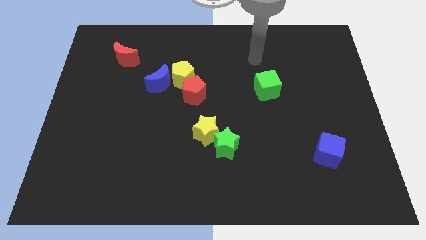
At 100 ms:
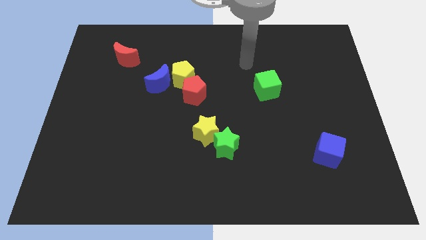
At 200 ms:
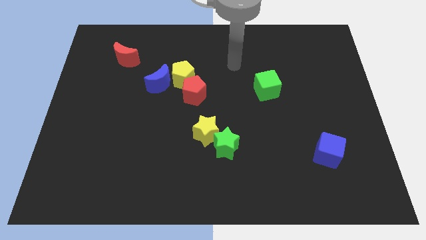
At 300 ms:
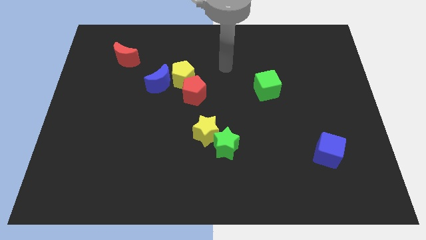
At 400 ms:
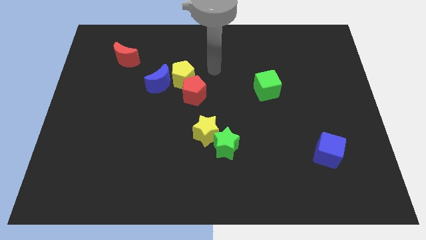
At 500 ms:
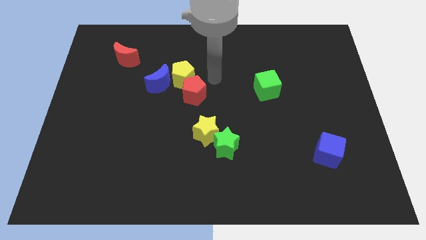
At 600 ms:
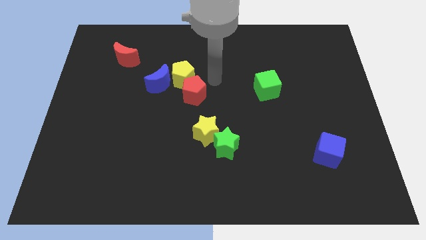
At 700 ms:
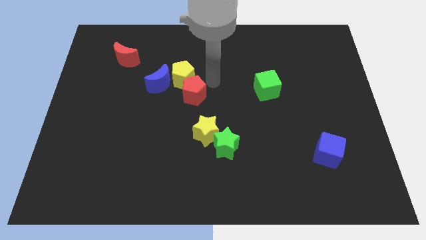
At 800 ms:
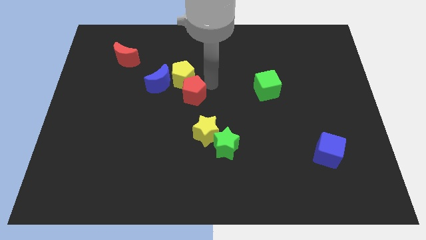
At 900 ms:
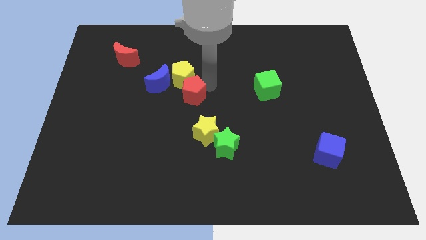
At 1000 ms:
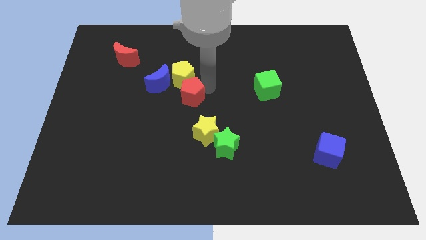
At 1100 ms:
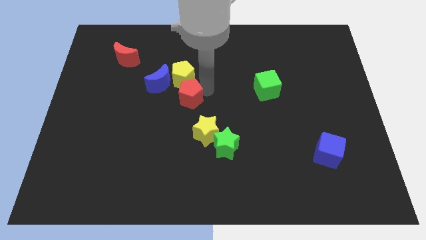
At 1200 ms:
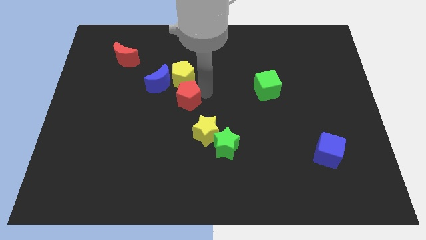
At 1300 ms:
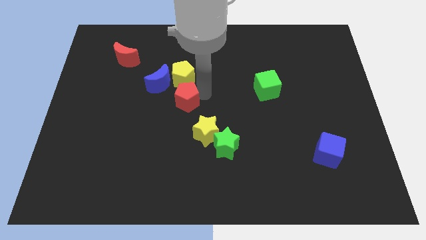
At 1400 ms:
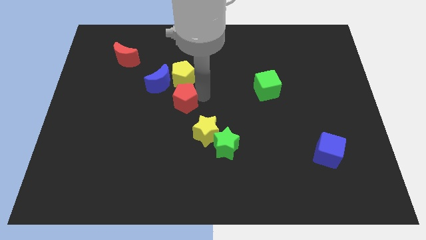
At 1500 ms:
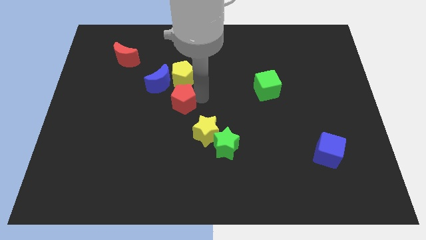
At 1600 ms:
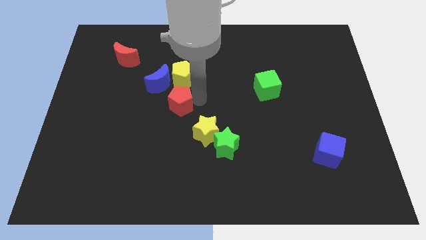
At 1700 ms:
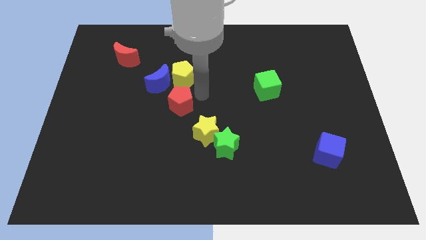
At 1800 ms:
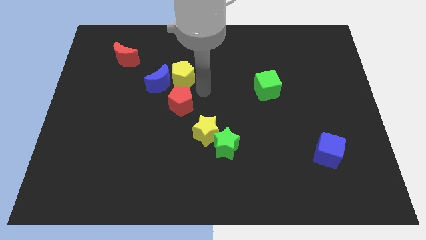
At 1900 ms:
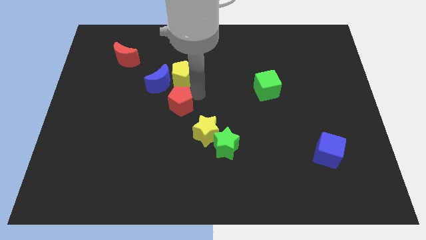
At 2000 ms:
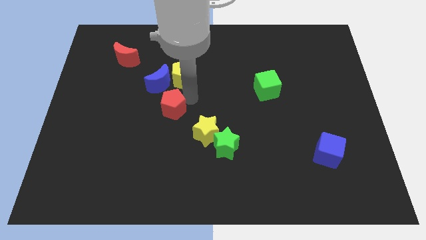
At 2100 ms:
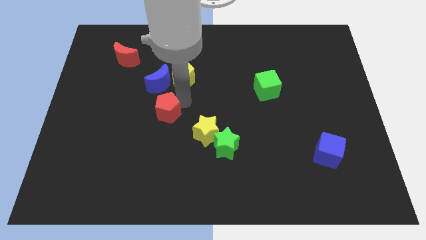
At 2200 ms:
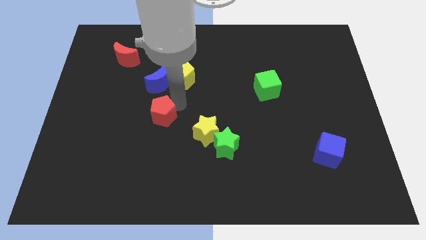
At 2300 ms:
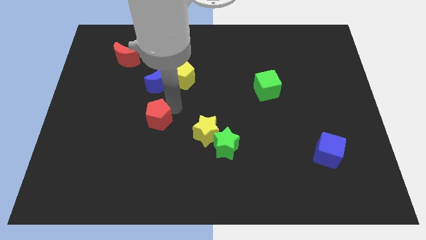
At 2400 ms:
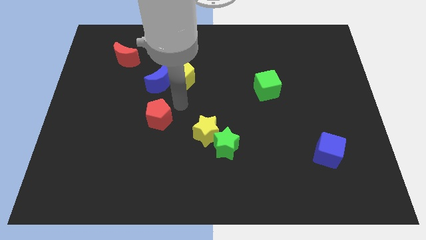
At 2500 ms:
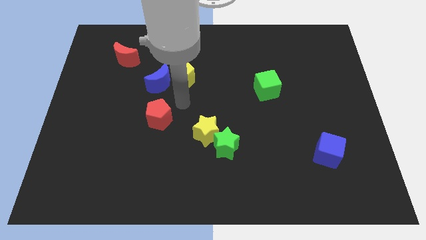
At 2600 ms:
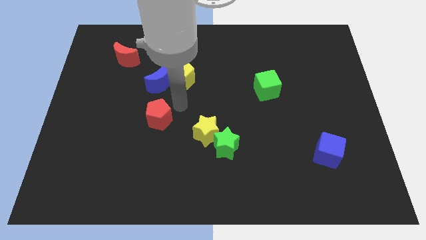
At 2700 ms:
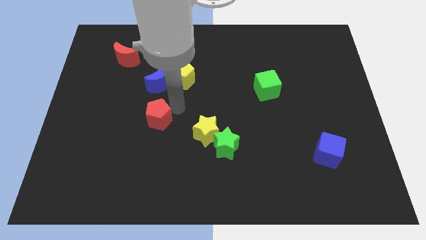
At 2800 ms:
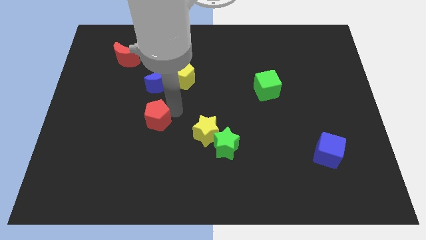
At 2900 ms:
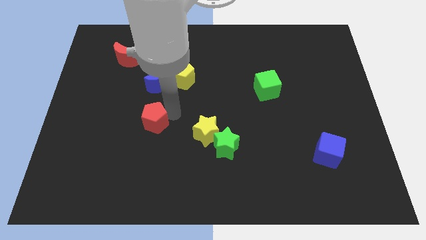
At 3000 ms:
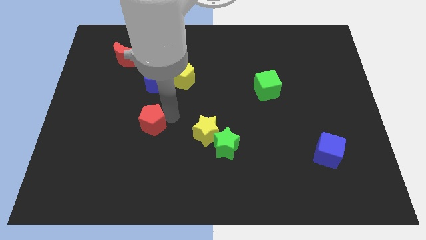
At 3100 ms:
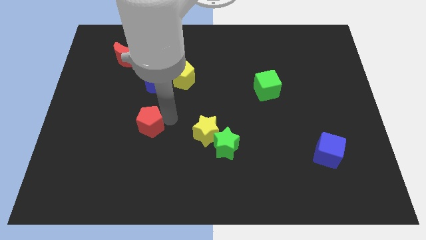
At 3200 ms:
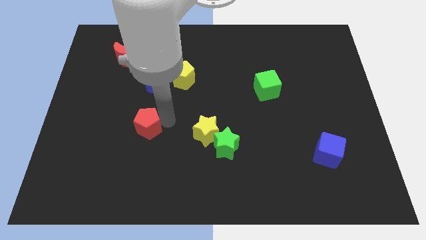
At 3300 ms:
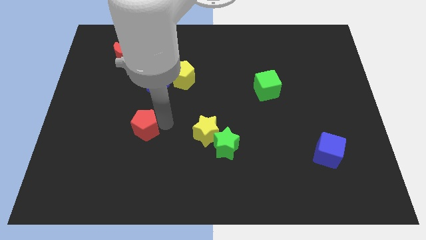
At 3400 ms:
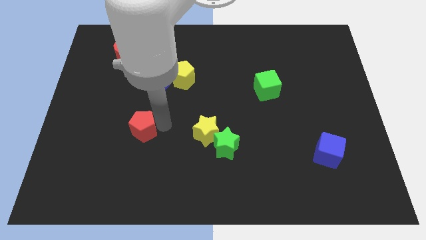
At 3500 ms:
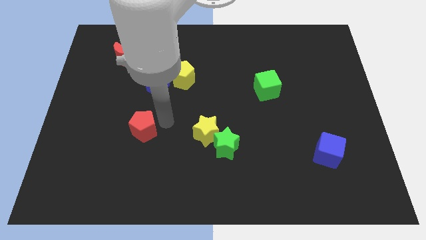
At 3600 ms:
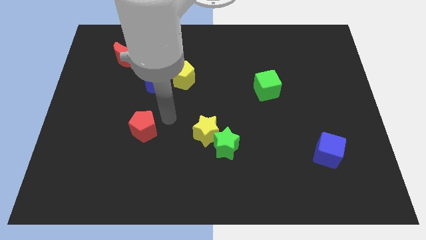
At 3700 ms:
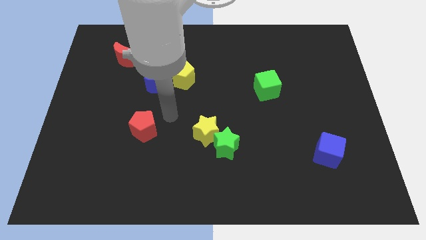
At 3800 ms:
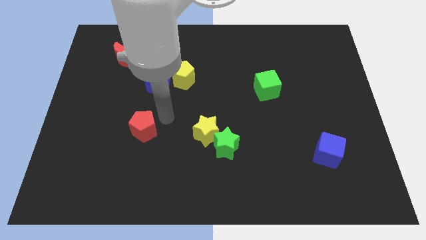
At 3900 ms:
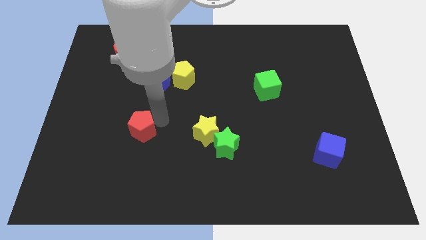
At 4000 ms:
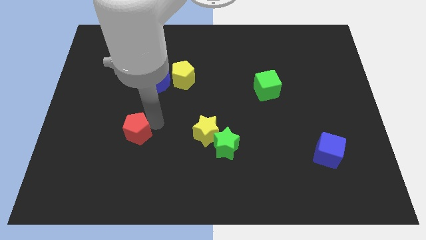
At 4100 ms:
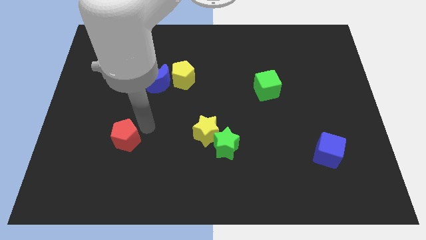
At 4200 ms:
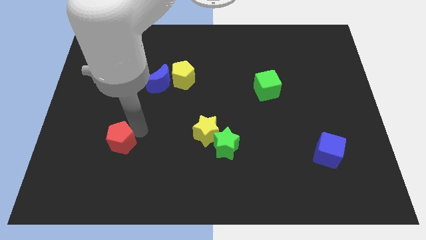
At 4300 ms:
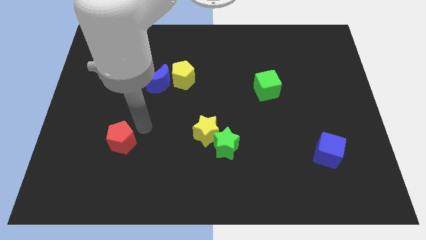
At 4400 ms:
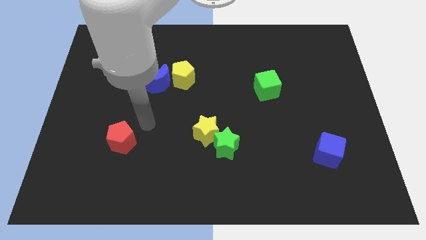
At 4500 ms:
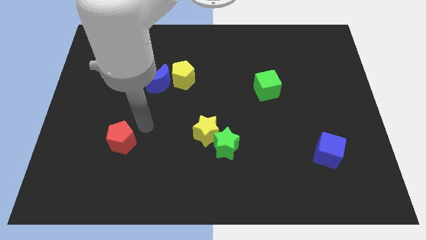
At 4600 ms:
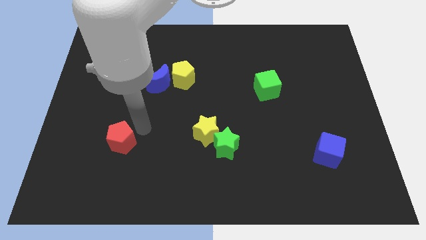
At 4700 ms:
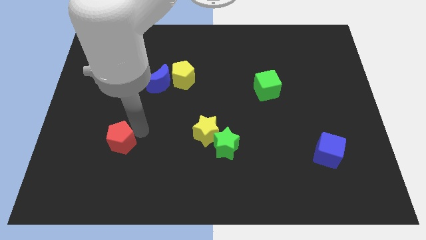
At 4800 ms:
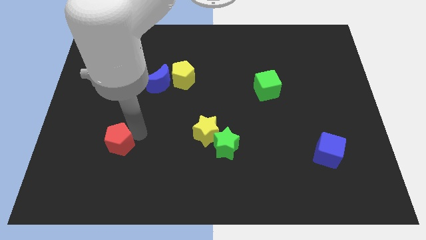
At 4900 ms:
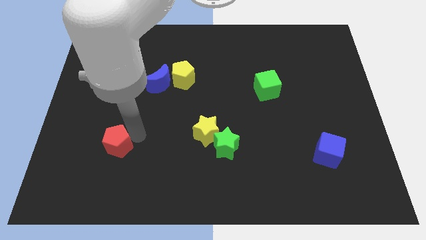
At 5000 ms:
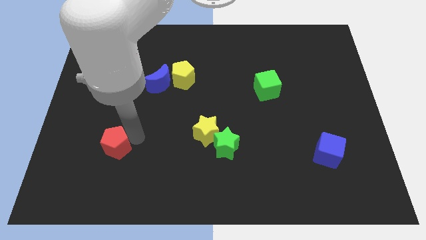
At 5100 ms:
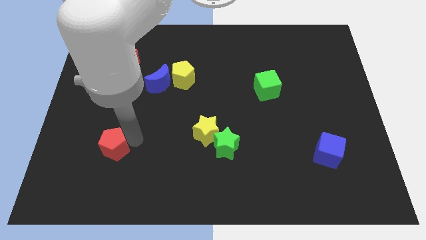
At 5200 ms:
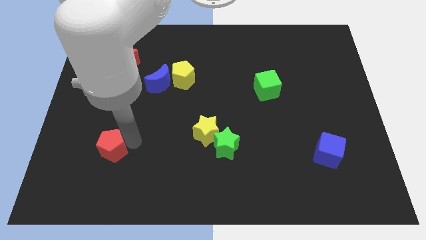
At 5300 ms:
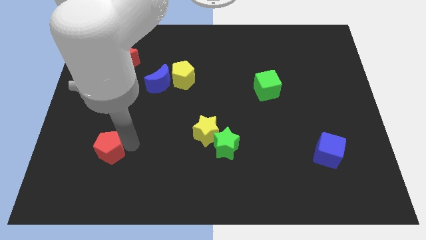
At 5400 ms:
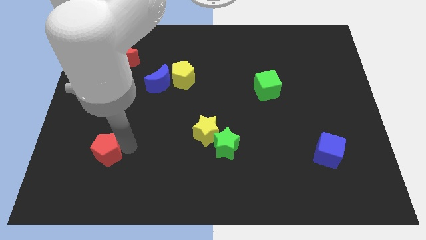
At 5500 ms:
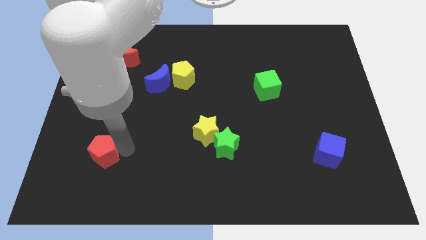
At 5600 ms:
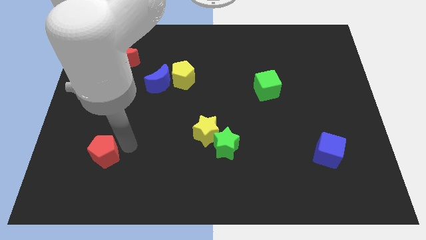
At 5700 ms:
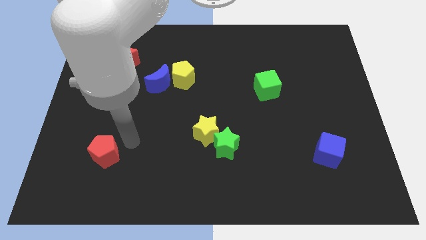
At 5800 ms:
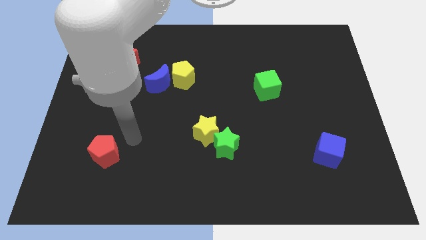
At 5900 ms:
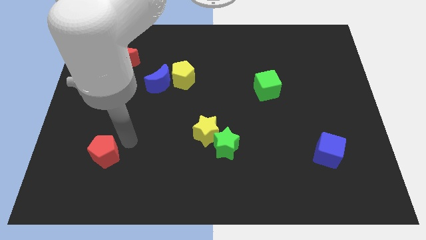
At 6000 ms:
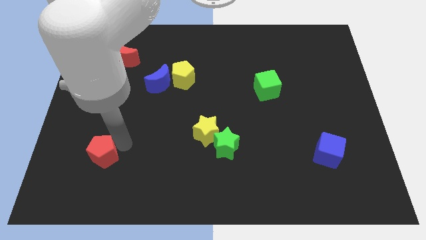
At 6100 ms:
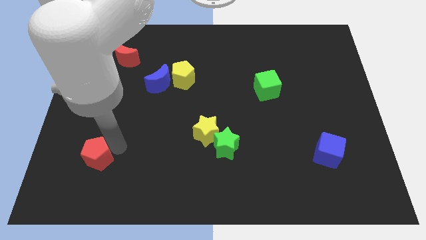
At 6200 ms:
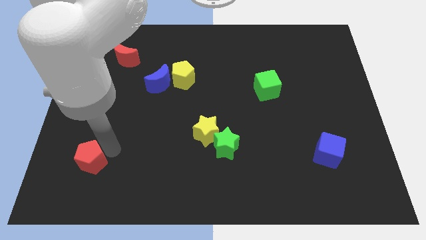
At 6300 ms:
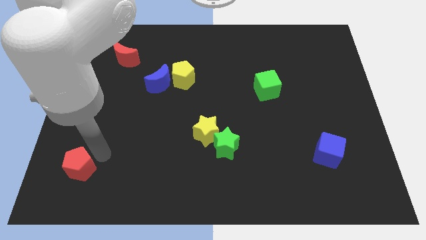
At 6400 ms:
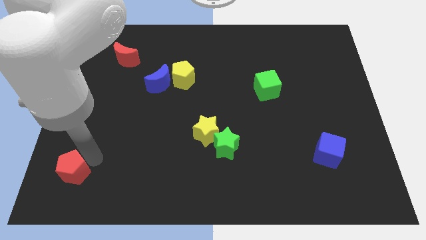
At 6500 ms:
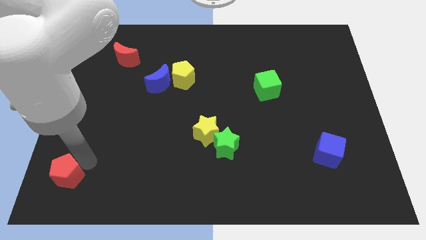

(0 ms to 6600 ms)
move the red pentagon to the bottom left
